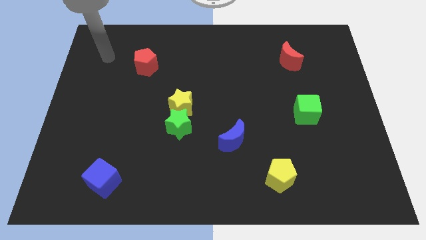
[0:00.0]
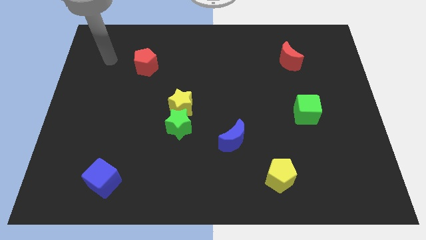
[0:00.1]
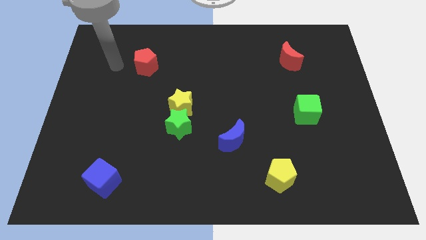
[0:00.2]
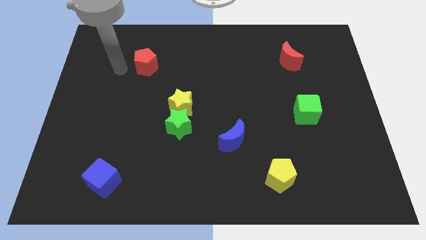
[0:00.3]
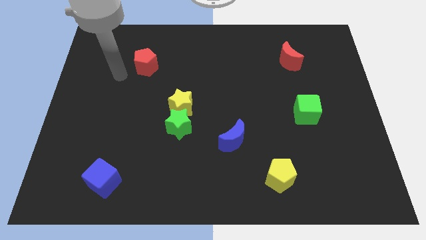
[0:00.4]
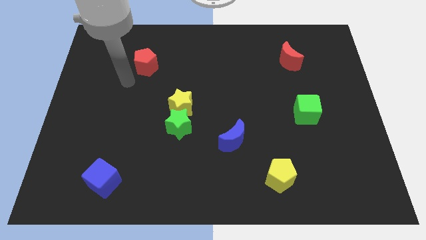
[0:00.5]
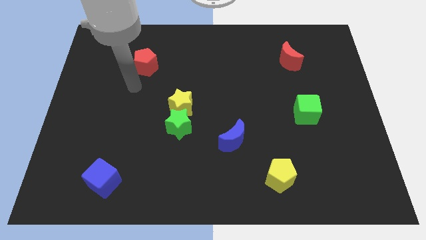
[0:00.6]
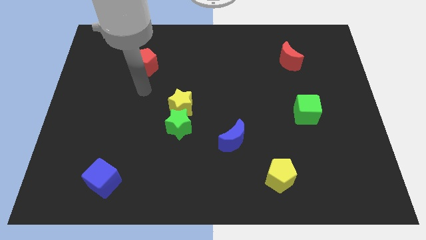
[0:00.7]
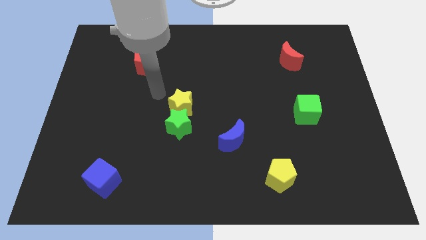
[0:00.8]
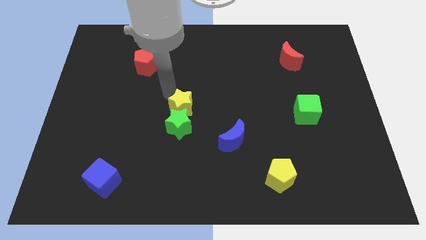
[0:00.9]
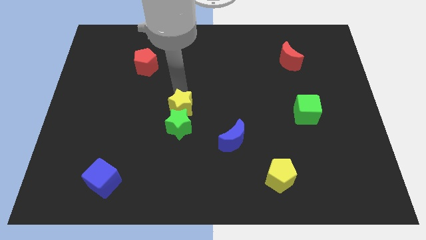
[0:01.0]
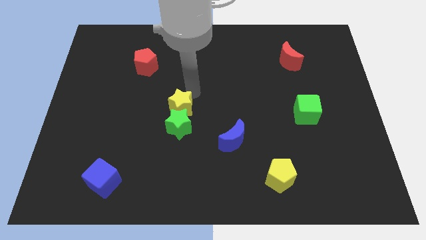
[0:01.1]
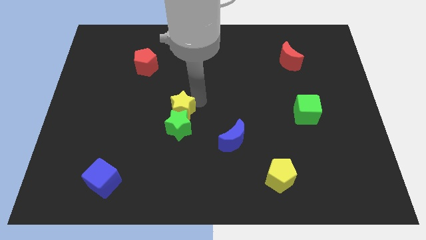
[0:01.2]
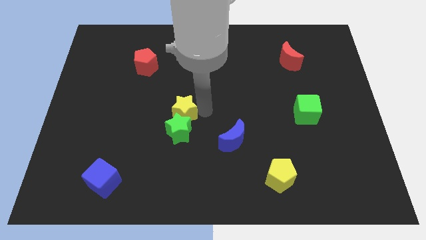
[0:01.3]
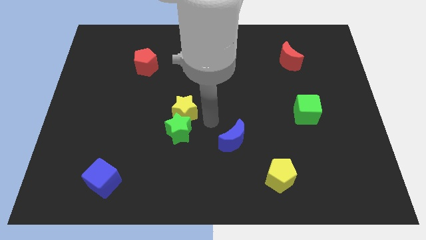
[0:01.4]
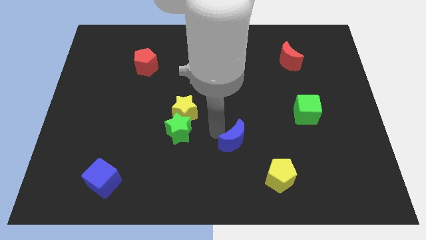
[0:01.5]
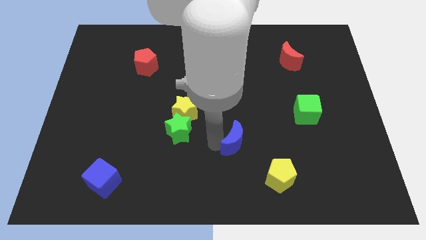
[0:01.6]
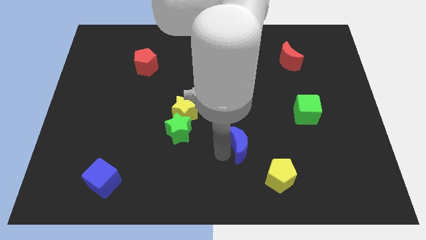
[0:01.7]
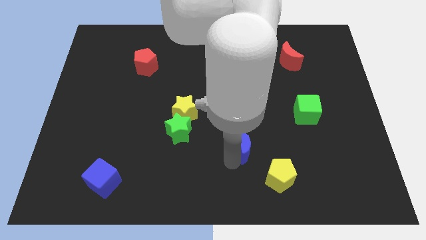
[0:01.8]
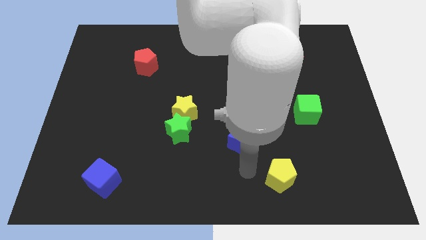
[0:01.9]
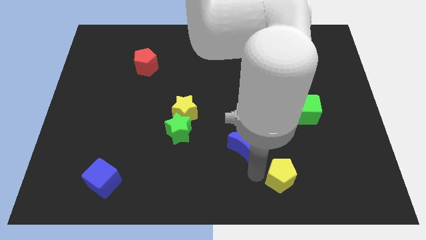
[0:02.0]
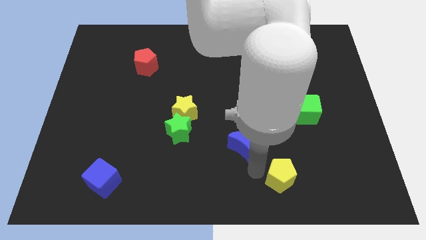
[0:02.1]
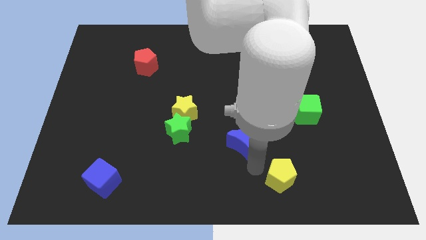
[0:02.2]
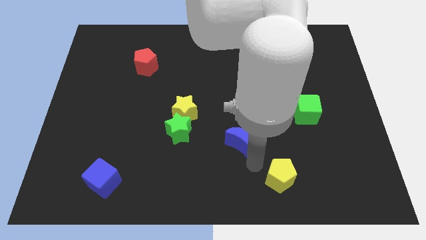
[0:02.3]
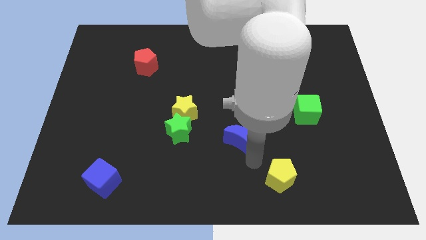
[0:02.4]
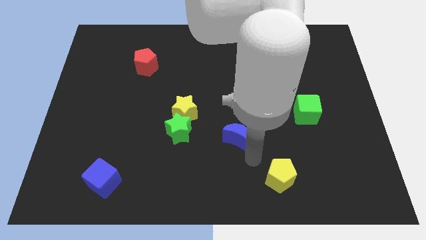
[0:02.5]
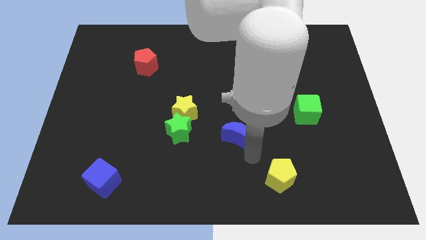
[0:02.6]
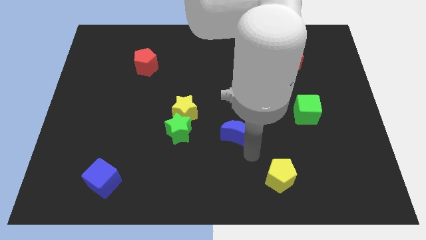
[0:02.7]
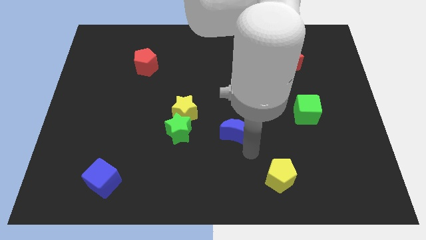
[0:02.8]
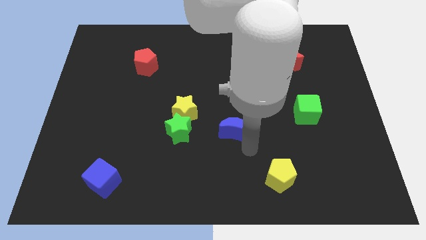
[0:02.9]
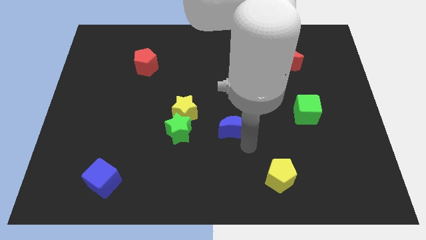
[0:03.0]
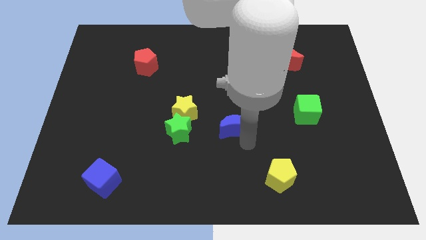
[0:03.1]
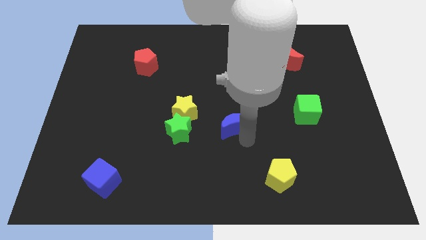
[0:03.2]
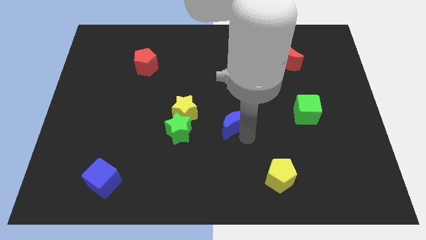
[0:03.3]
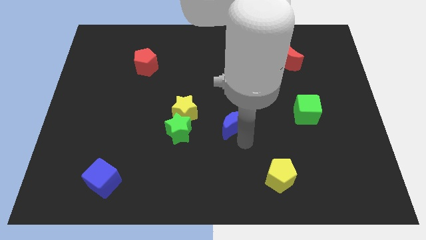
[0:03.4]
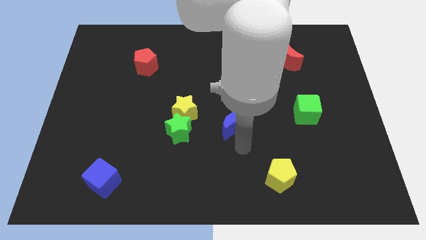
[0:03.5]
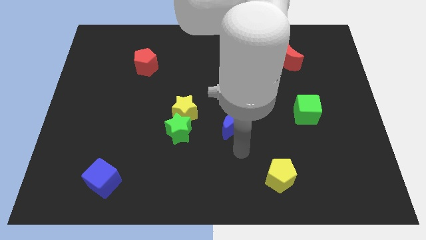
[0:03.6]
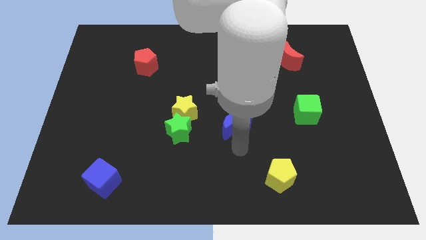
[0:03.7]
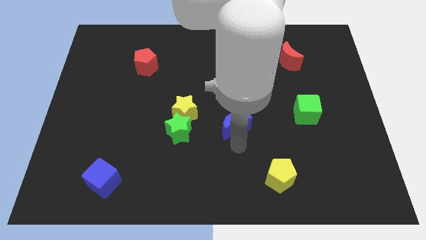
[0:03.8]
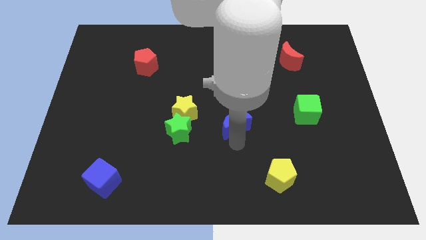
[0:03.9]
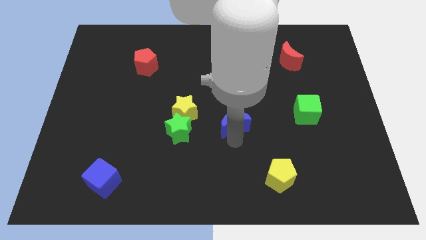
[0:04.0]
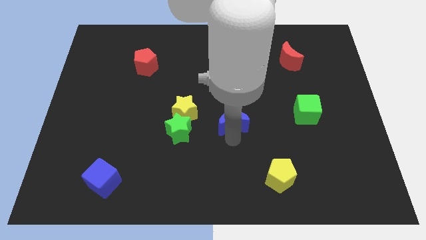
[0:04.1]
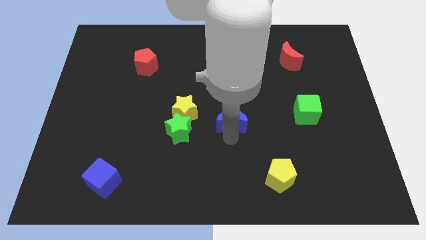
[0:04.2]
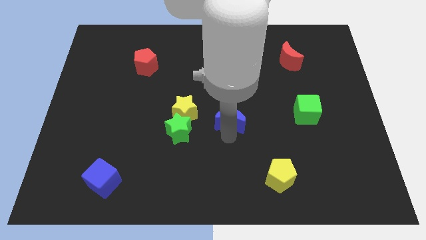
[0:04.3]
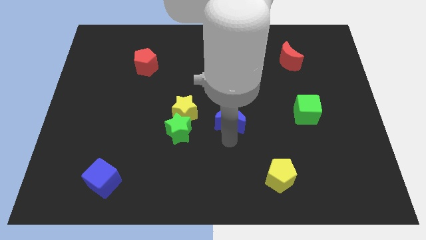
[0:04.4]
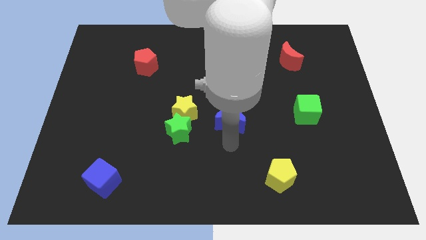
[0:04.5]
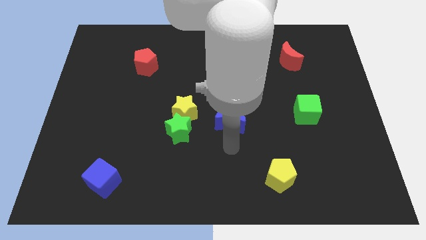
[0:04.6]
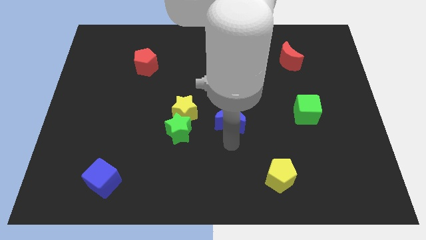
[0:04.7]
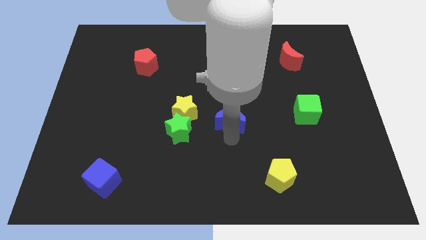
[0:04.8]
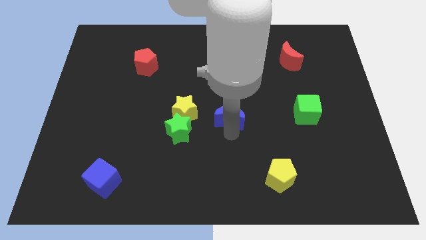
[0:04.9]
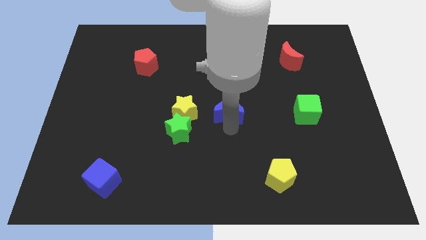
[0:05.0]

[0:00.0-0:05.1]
move the blue moon up slightly

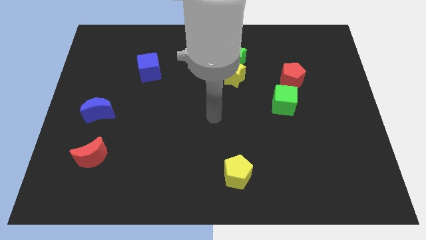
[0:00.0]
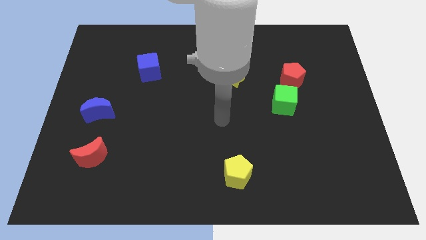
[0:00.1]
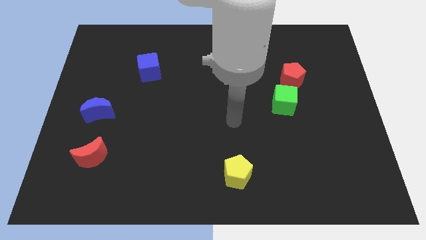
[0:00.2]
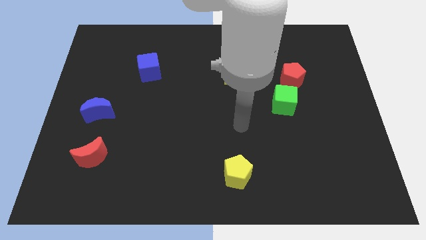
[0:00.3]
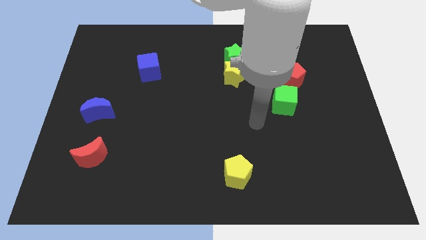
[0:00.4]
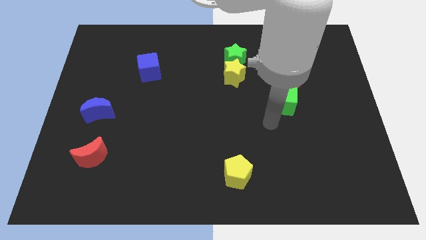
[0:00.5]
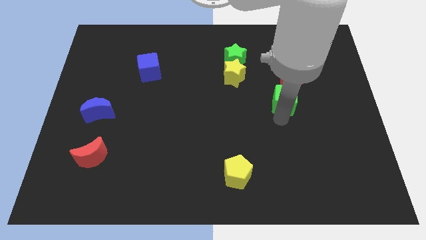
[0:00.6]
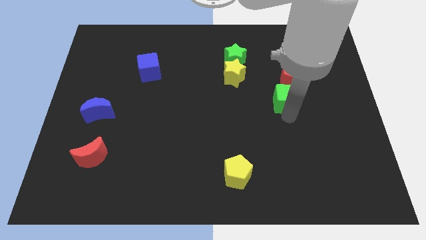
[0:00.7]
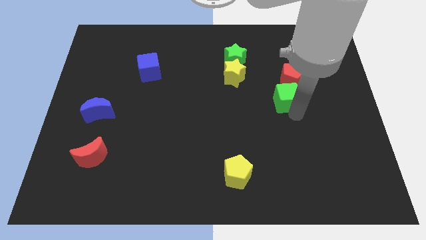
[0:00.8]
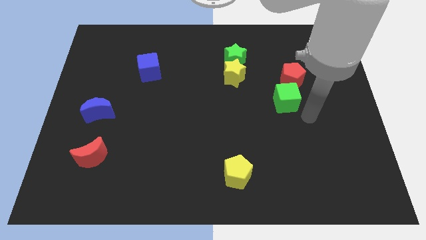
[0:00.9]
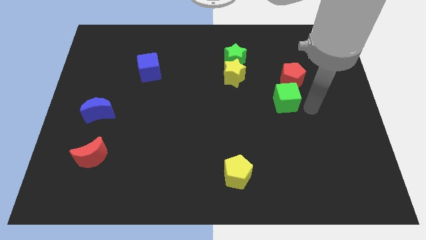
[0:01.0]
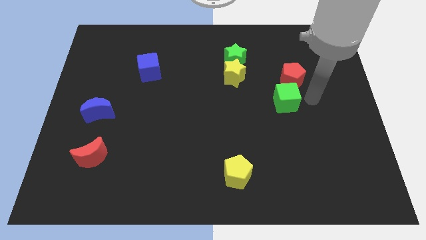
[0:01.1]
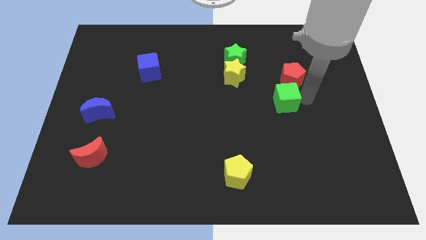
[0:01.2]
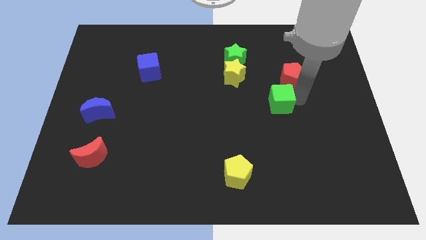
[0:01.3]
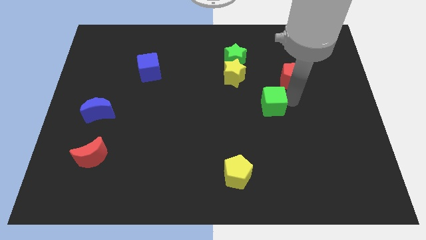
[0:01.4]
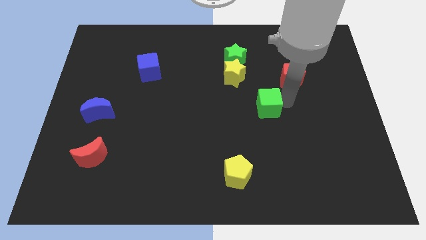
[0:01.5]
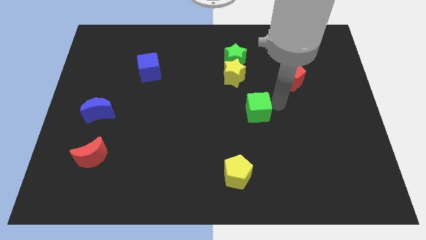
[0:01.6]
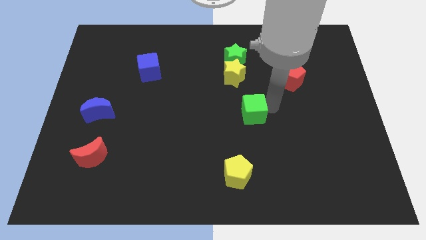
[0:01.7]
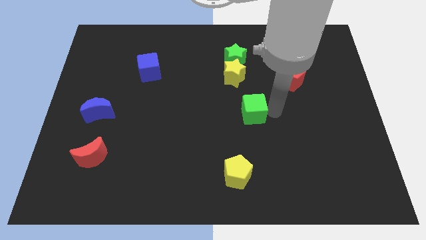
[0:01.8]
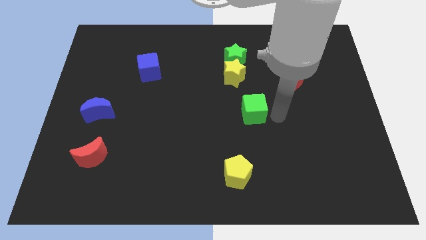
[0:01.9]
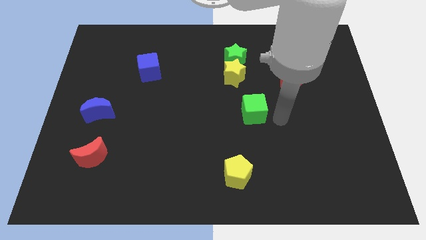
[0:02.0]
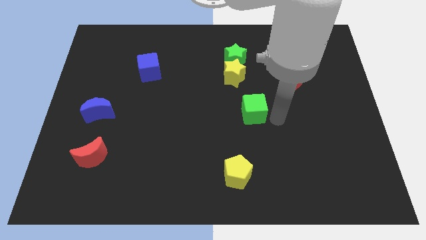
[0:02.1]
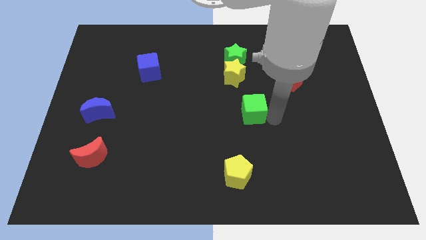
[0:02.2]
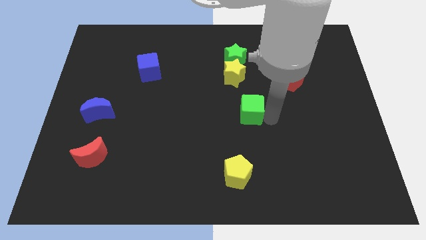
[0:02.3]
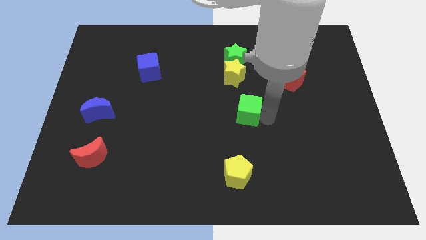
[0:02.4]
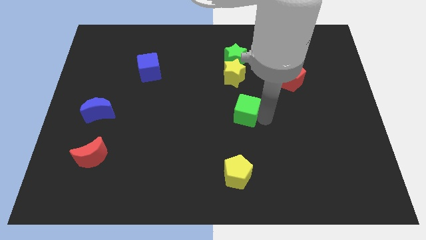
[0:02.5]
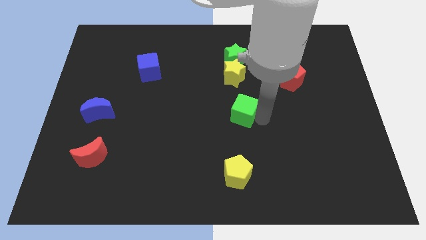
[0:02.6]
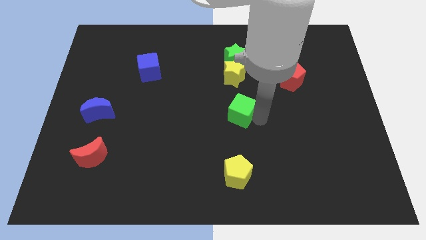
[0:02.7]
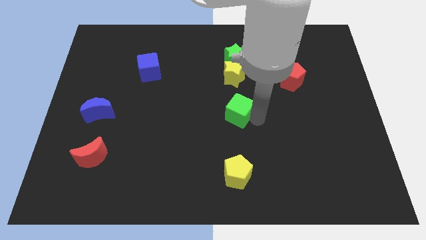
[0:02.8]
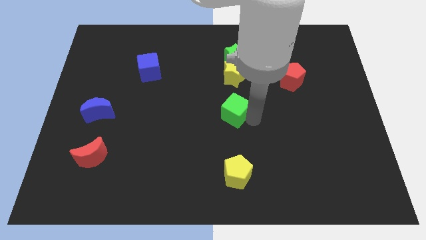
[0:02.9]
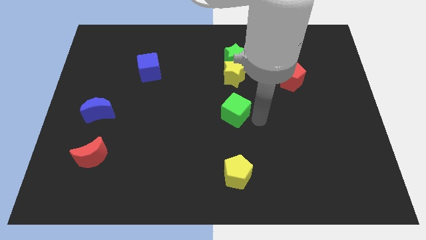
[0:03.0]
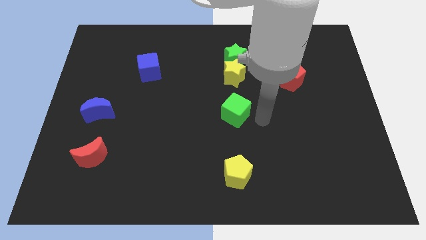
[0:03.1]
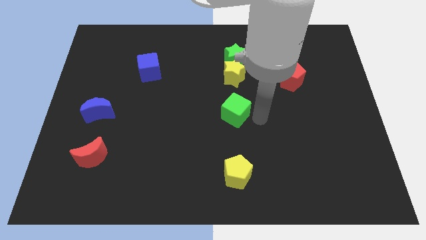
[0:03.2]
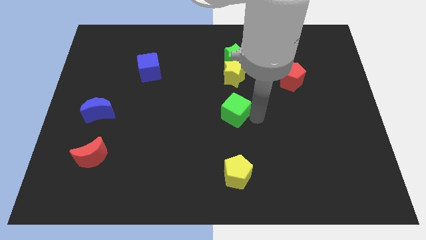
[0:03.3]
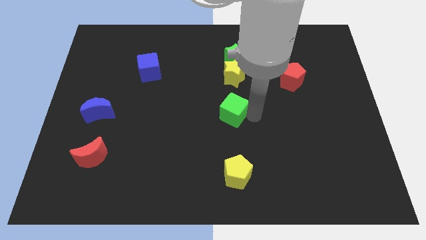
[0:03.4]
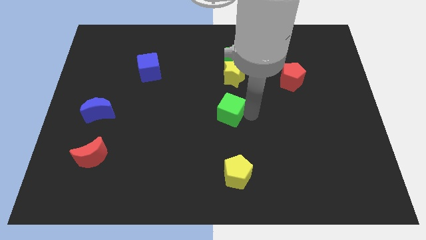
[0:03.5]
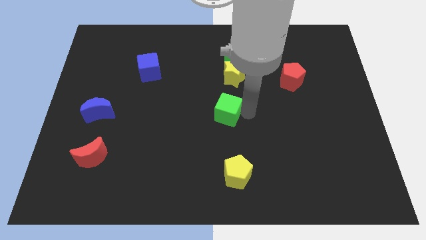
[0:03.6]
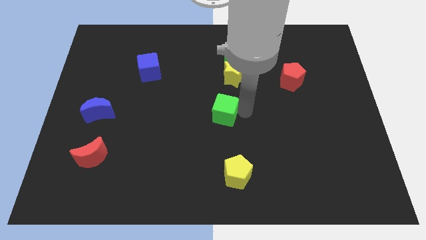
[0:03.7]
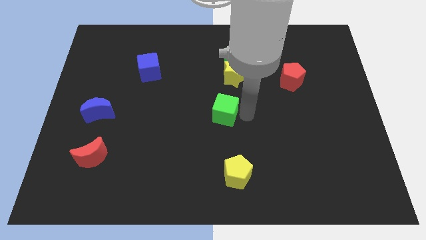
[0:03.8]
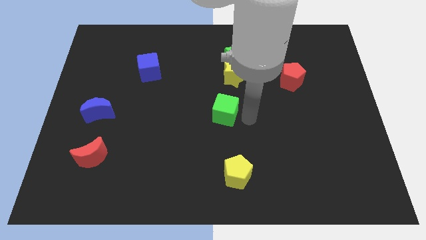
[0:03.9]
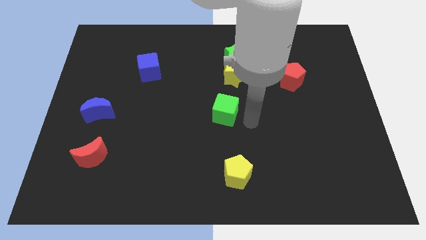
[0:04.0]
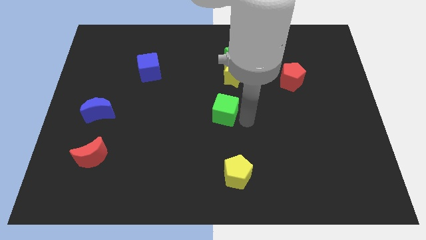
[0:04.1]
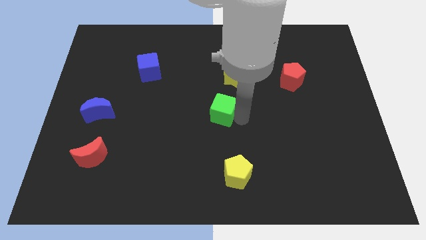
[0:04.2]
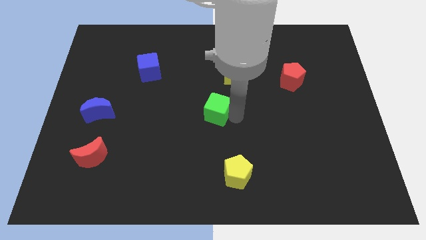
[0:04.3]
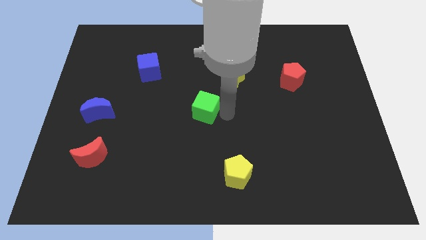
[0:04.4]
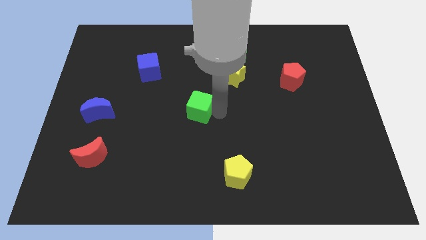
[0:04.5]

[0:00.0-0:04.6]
slide the green cube to the left
